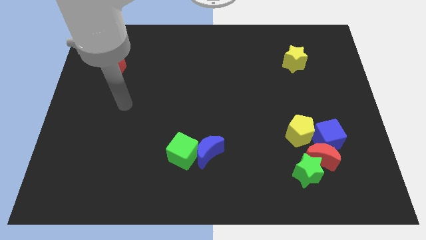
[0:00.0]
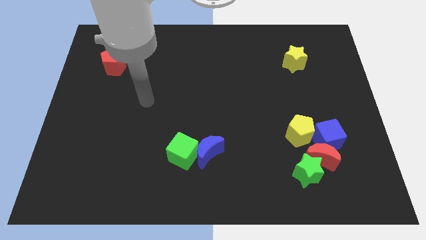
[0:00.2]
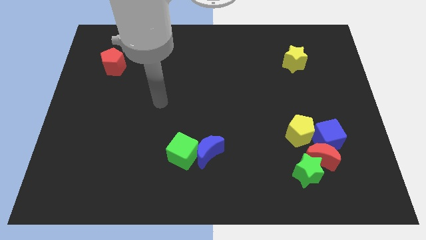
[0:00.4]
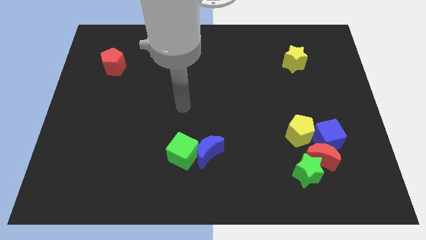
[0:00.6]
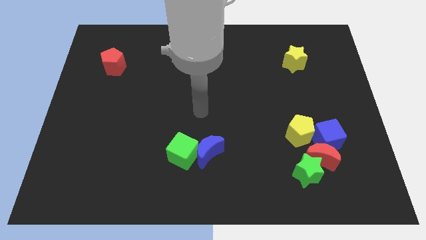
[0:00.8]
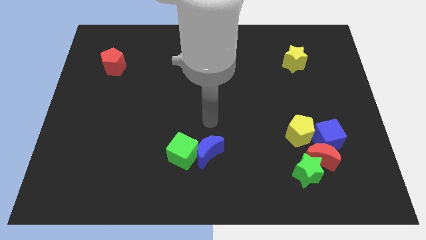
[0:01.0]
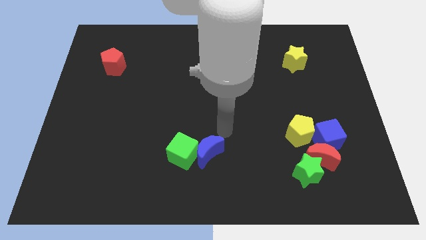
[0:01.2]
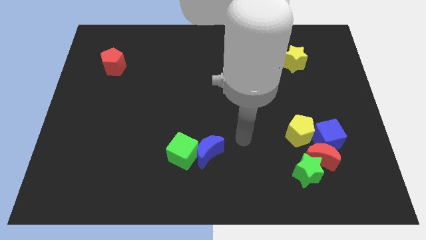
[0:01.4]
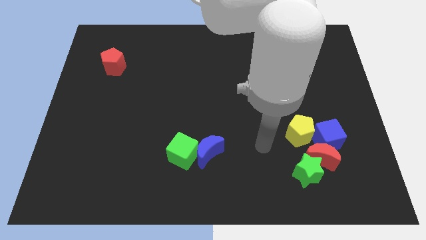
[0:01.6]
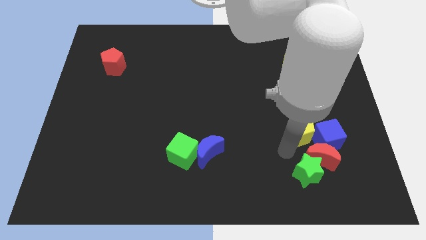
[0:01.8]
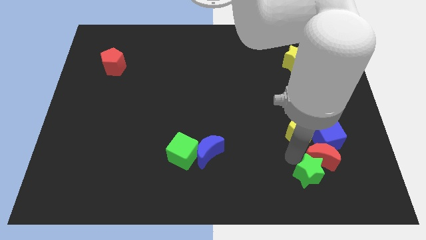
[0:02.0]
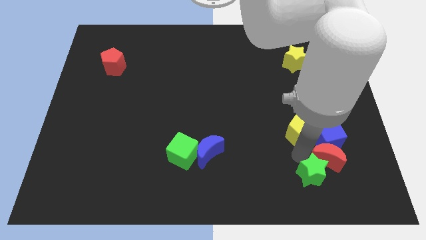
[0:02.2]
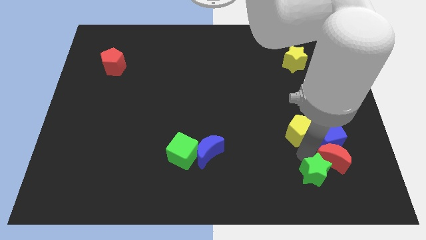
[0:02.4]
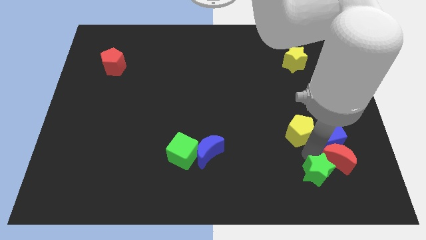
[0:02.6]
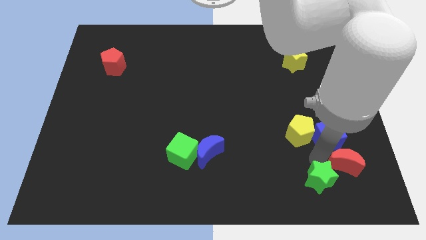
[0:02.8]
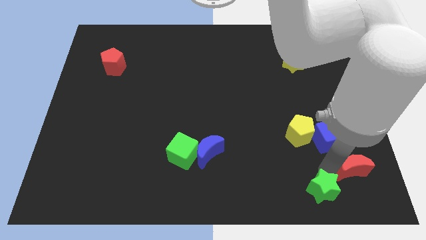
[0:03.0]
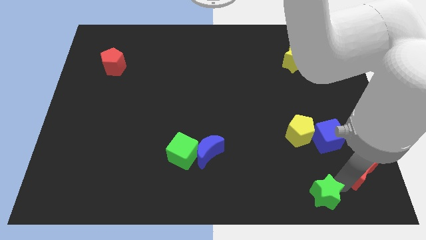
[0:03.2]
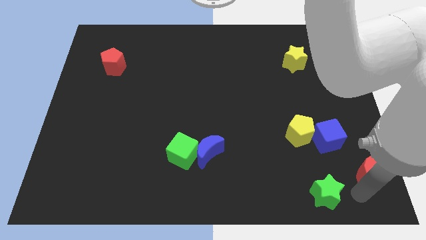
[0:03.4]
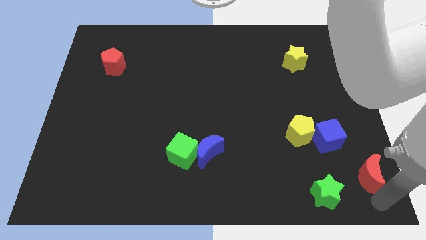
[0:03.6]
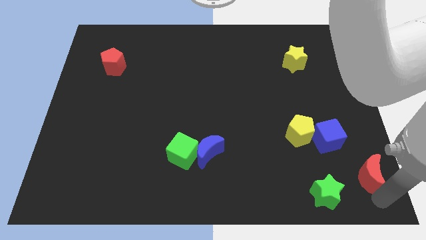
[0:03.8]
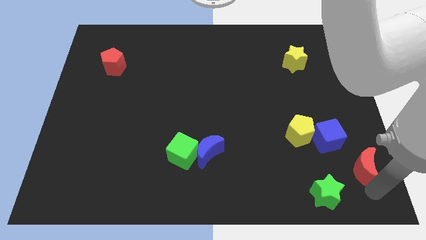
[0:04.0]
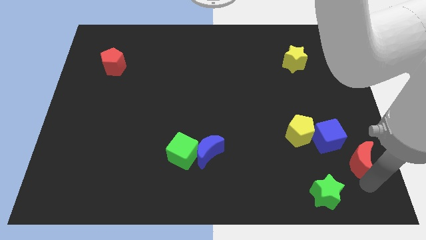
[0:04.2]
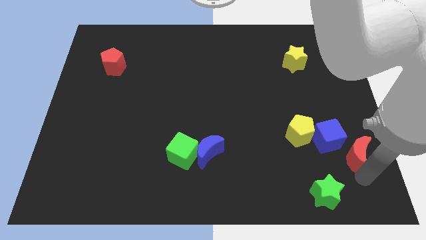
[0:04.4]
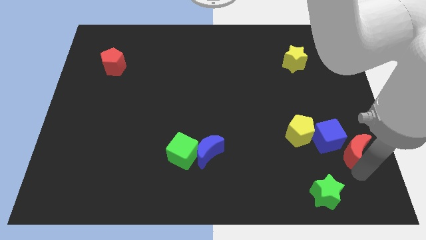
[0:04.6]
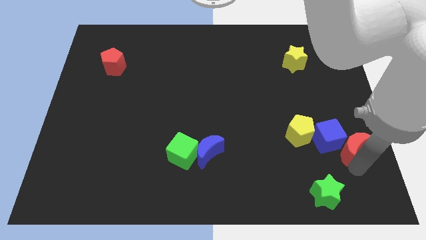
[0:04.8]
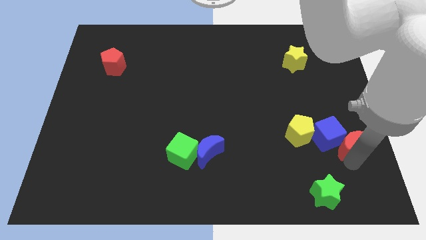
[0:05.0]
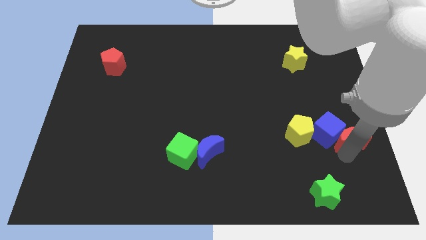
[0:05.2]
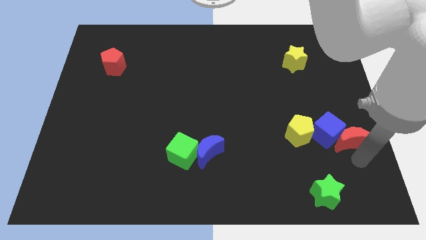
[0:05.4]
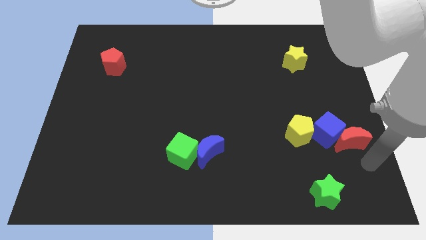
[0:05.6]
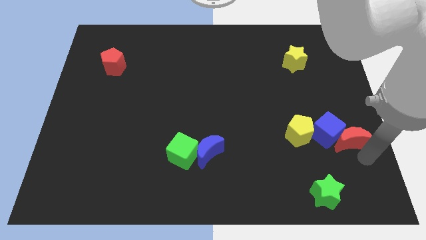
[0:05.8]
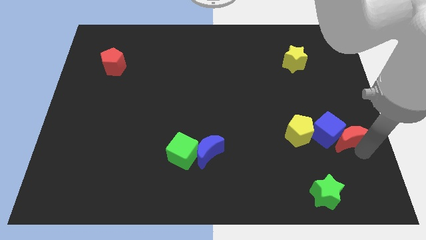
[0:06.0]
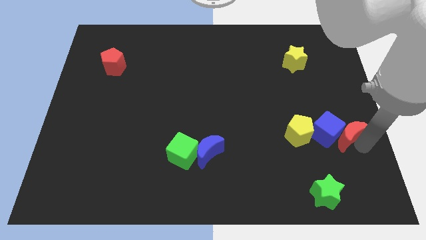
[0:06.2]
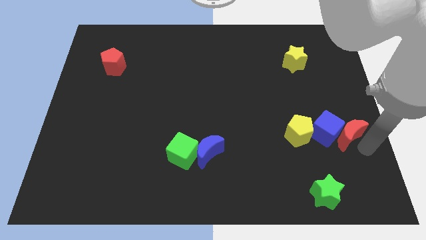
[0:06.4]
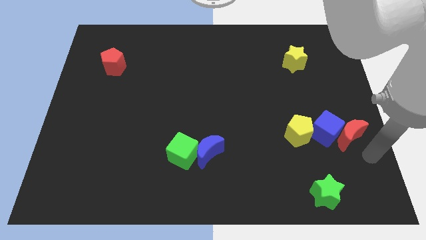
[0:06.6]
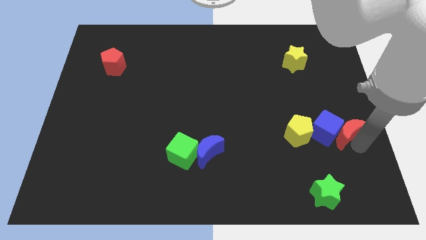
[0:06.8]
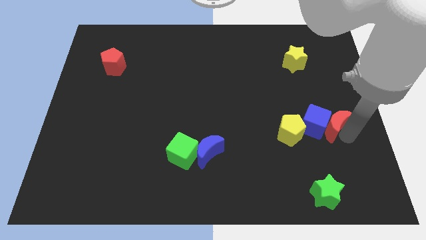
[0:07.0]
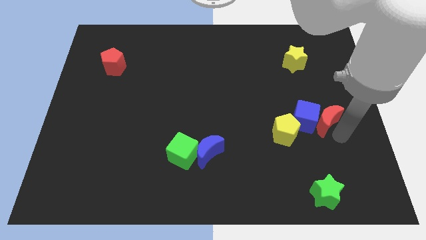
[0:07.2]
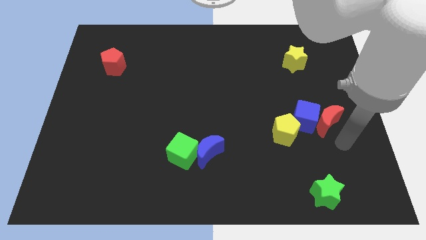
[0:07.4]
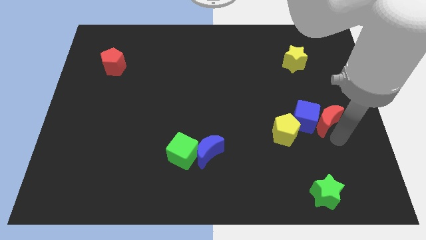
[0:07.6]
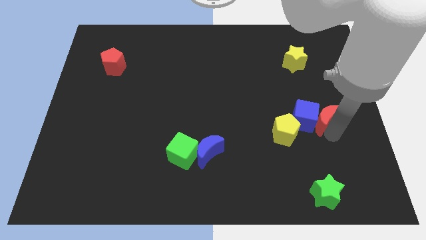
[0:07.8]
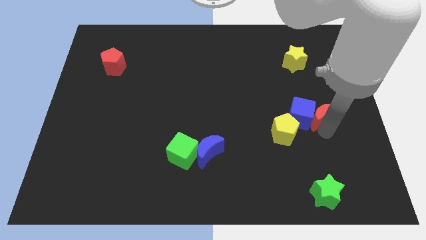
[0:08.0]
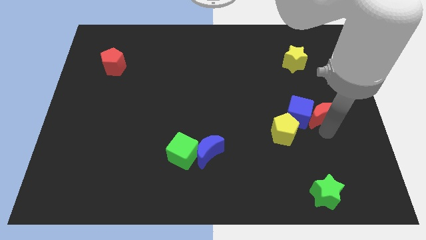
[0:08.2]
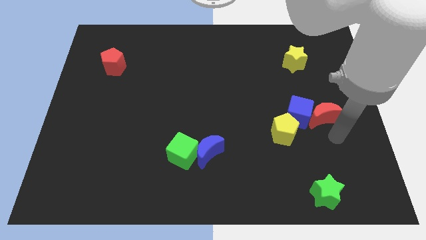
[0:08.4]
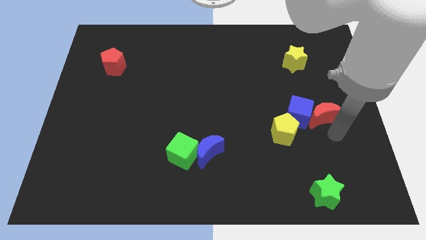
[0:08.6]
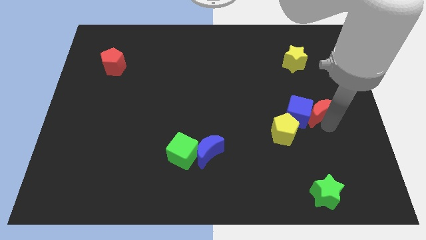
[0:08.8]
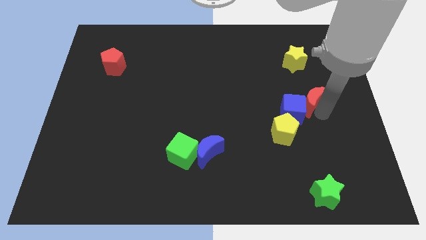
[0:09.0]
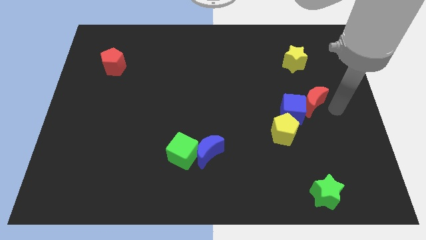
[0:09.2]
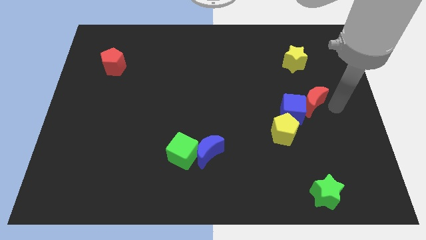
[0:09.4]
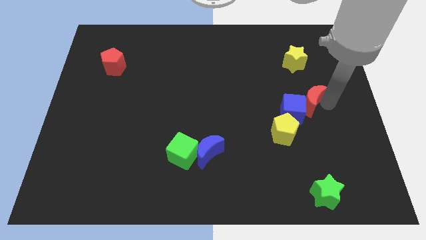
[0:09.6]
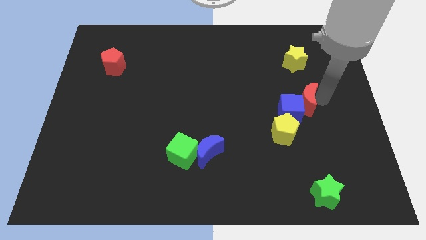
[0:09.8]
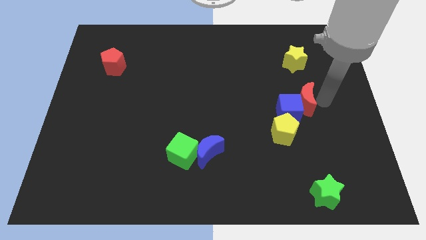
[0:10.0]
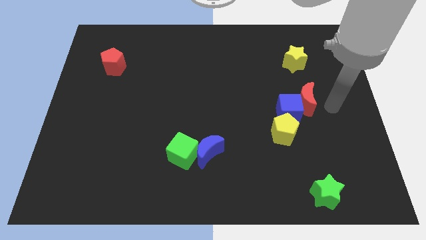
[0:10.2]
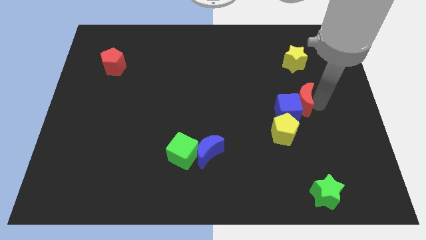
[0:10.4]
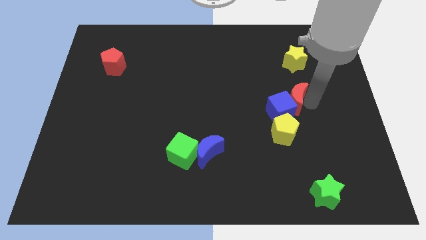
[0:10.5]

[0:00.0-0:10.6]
put the red moon above the yellow pentagon

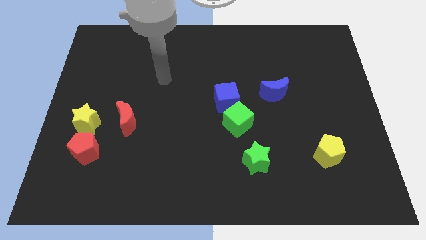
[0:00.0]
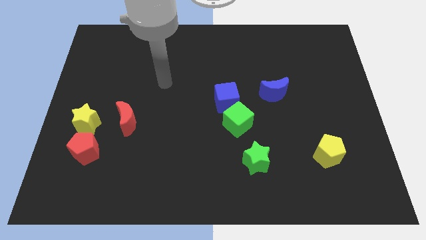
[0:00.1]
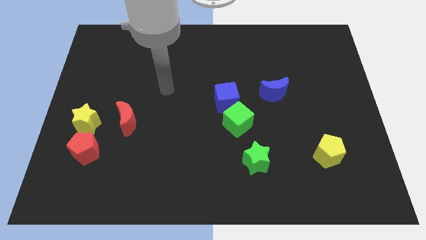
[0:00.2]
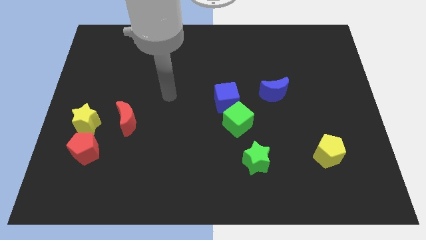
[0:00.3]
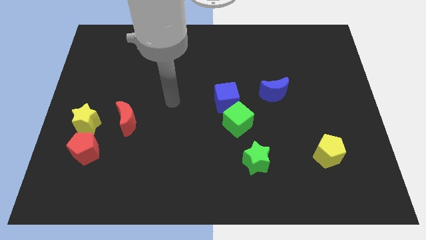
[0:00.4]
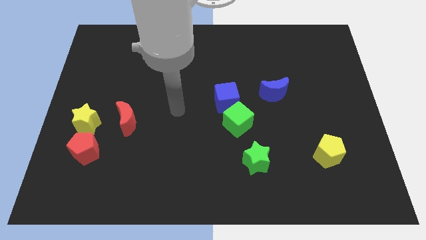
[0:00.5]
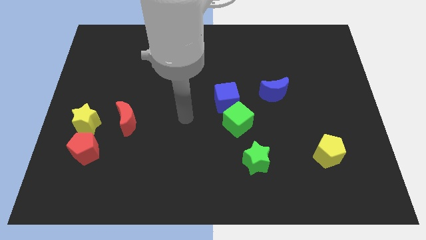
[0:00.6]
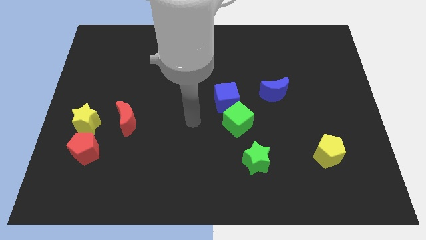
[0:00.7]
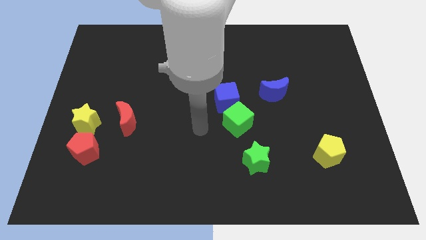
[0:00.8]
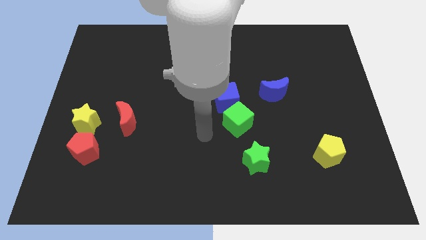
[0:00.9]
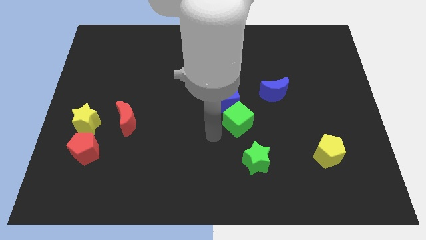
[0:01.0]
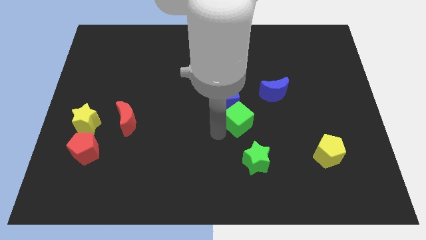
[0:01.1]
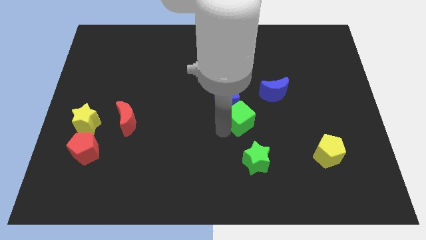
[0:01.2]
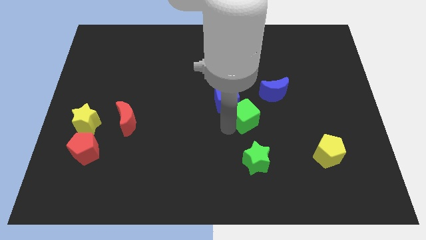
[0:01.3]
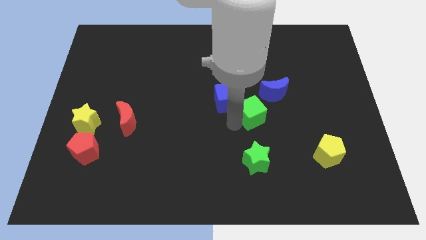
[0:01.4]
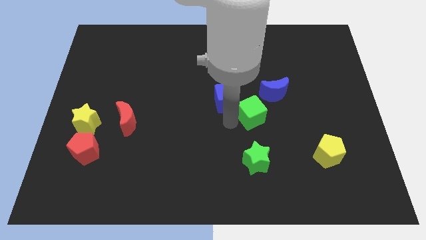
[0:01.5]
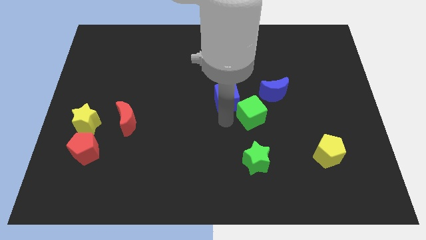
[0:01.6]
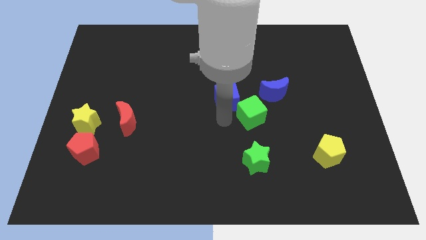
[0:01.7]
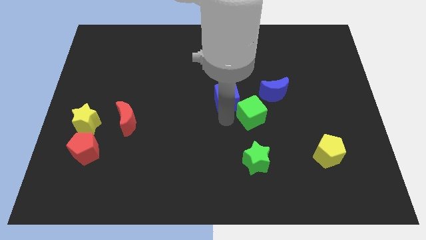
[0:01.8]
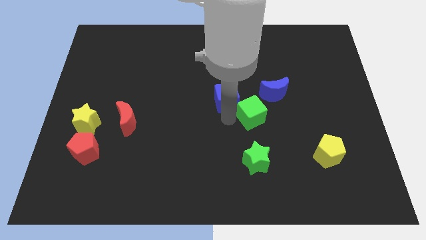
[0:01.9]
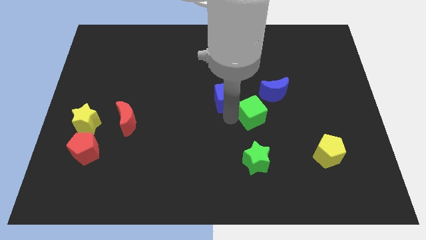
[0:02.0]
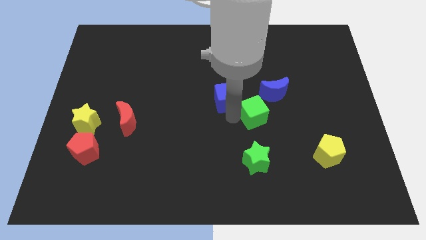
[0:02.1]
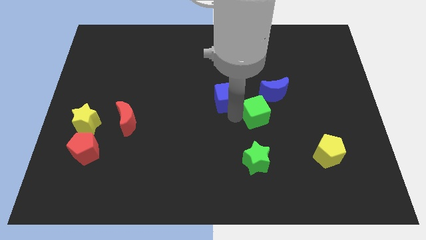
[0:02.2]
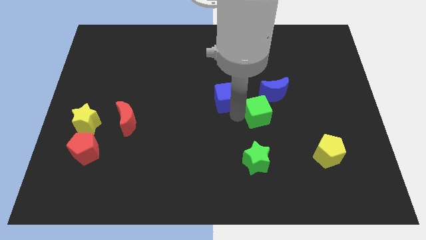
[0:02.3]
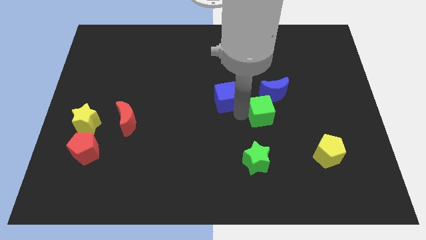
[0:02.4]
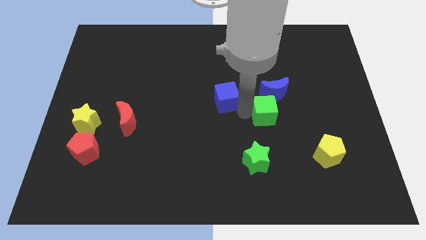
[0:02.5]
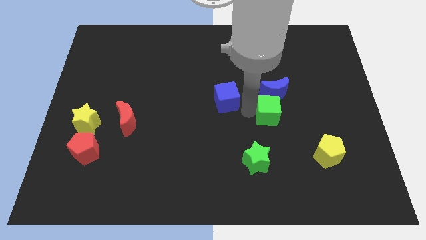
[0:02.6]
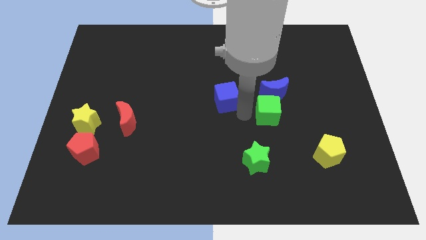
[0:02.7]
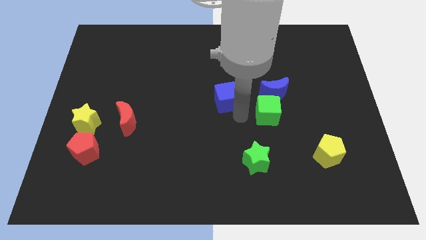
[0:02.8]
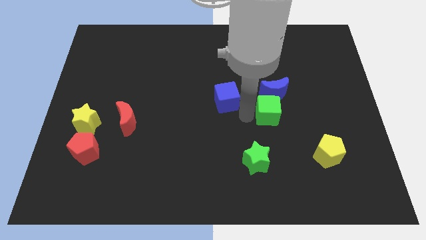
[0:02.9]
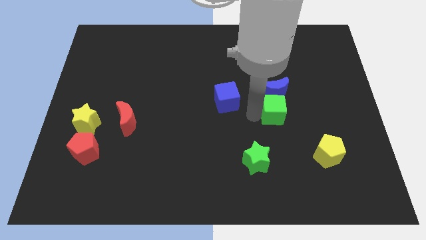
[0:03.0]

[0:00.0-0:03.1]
put the green cube to the bottom right of the blue moon

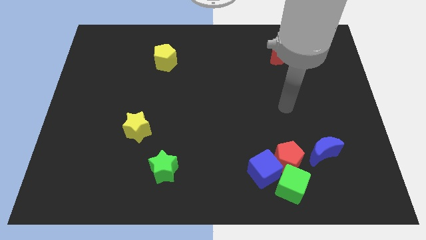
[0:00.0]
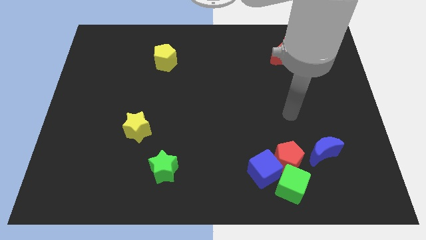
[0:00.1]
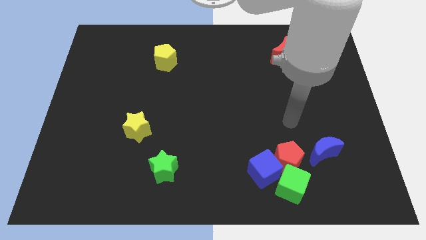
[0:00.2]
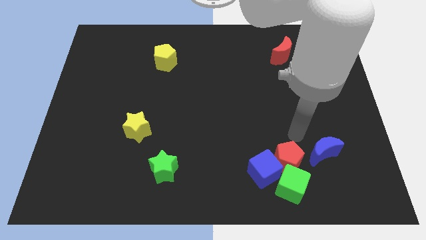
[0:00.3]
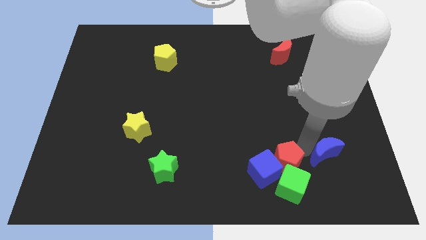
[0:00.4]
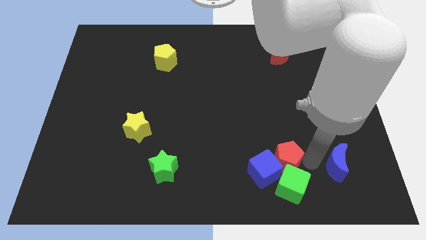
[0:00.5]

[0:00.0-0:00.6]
move the green cube to the left side of the blue moon
